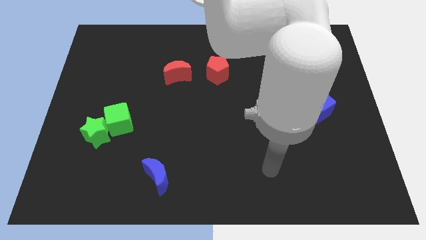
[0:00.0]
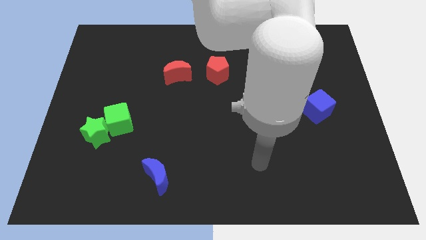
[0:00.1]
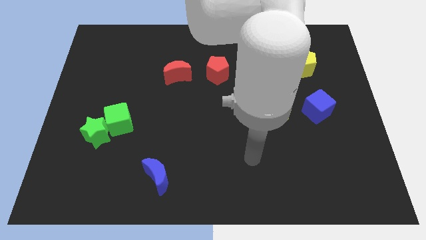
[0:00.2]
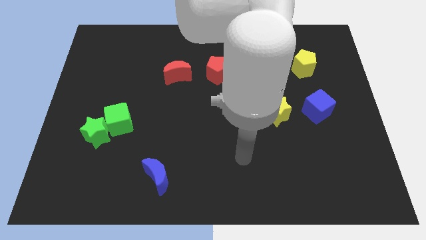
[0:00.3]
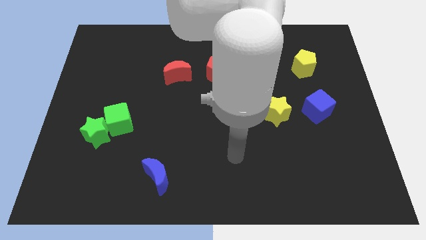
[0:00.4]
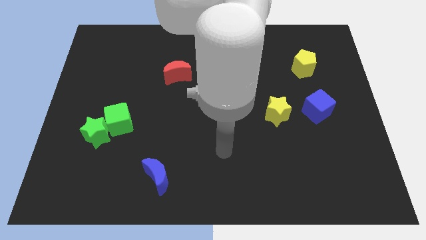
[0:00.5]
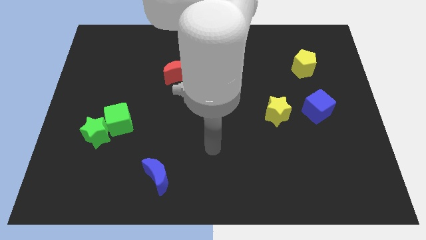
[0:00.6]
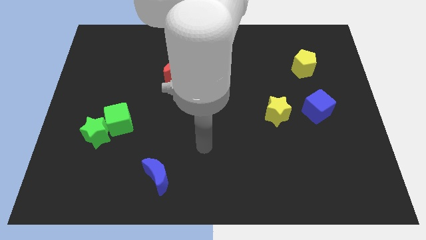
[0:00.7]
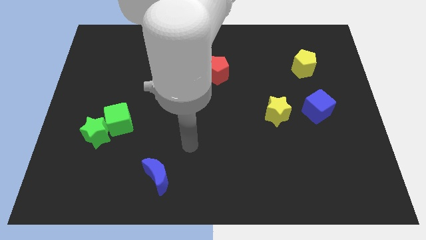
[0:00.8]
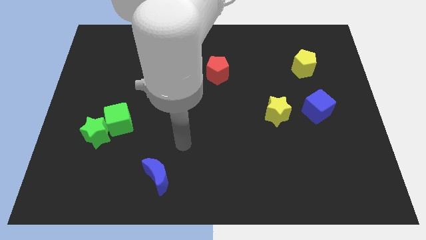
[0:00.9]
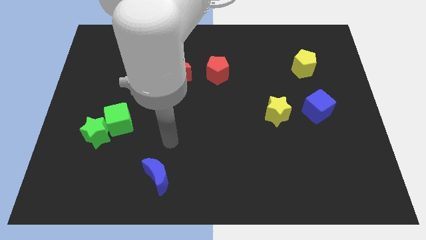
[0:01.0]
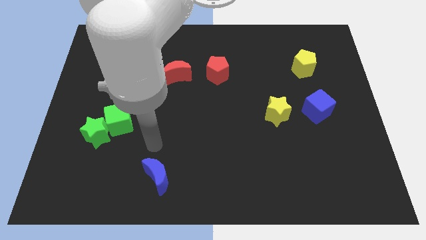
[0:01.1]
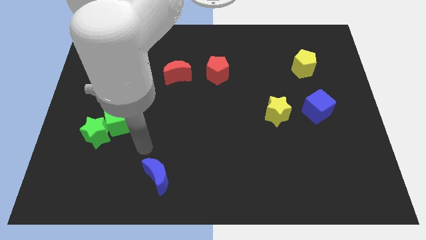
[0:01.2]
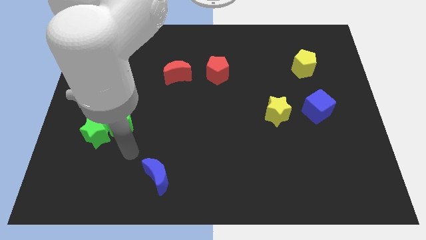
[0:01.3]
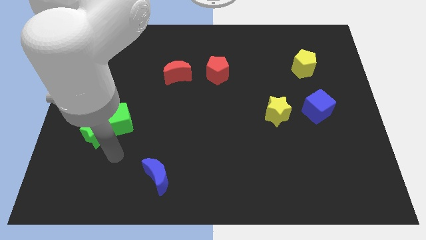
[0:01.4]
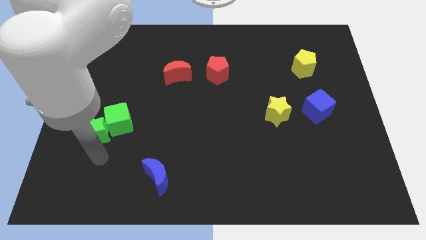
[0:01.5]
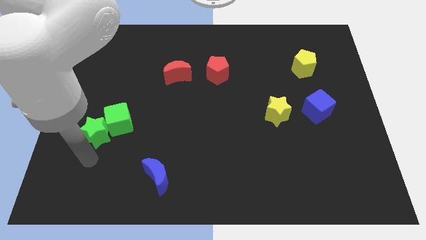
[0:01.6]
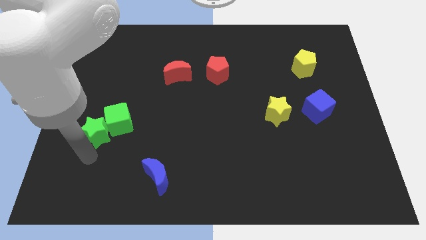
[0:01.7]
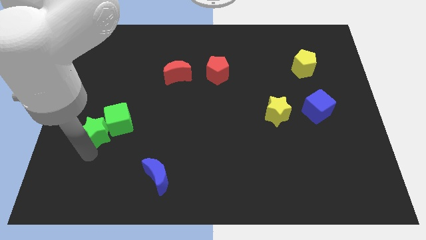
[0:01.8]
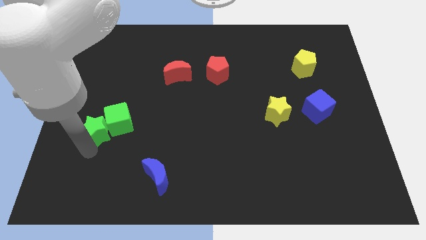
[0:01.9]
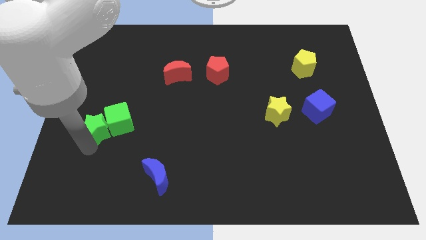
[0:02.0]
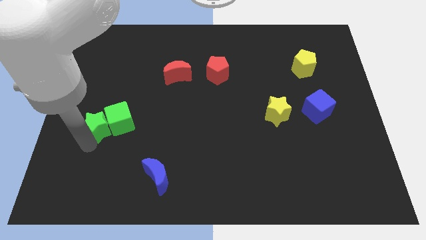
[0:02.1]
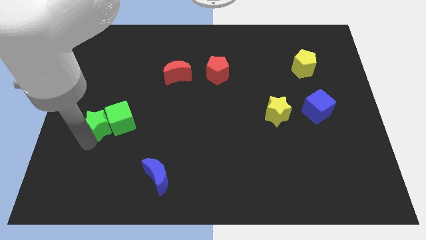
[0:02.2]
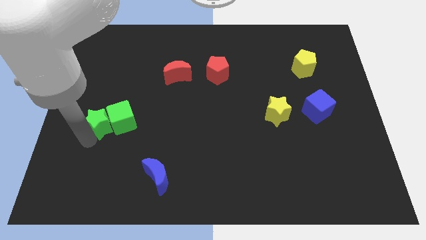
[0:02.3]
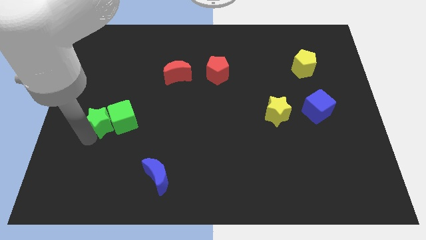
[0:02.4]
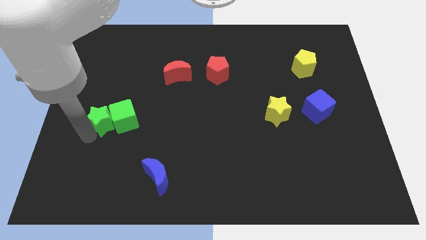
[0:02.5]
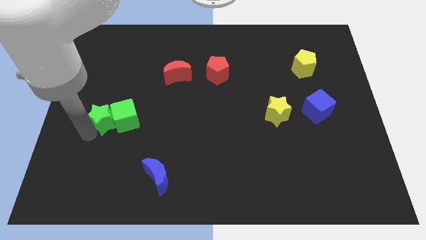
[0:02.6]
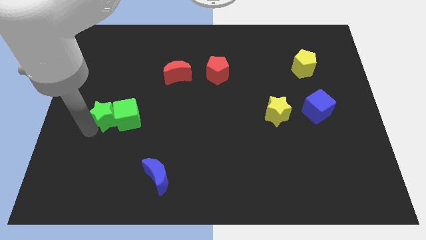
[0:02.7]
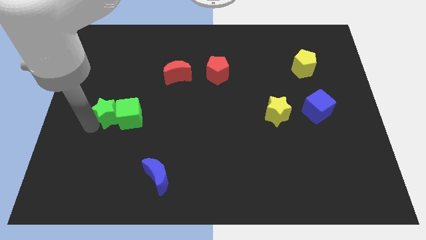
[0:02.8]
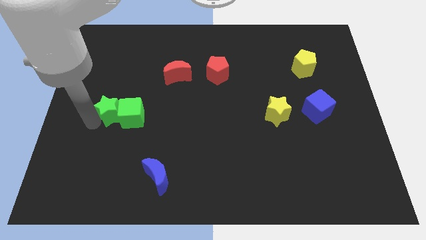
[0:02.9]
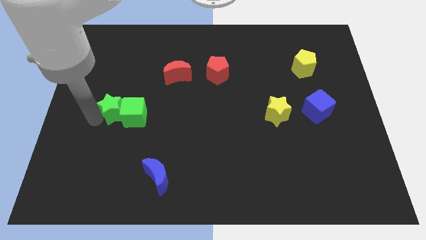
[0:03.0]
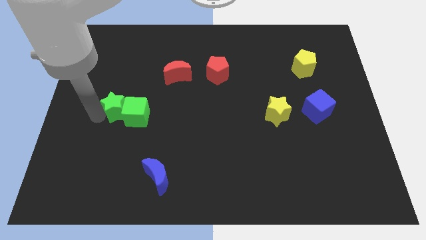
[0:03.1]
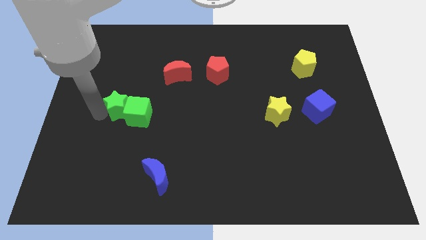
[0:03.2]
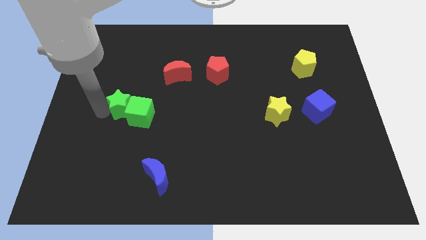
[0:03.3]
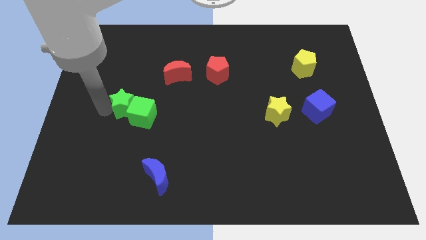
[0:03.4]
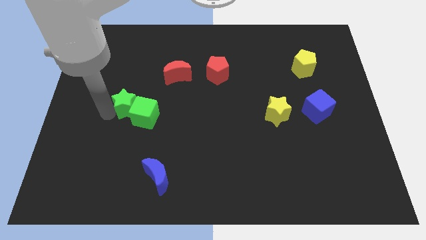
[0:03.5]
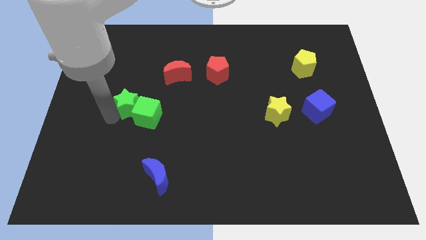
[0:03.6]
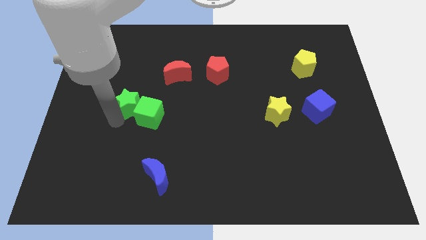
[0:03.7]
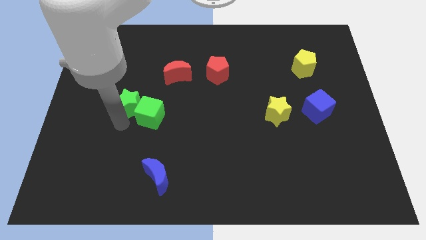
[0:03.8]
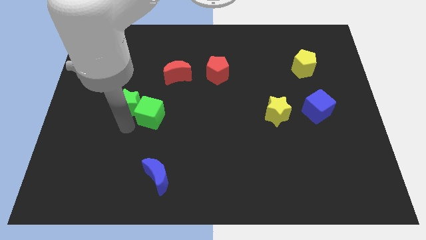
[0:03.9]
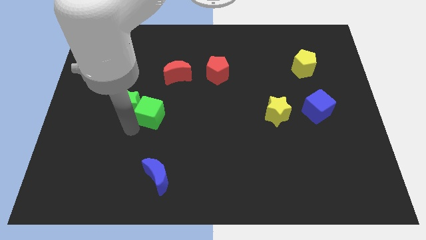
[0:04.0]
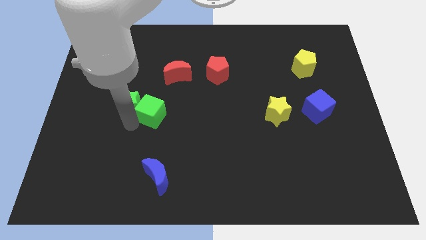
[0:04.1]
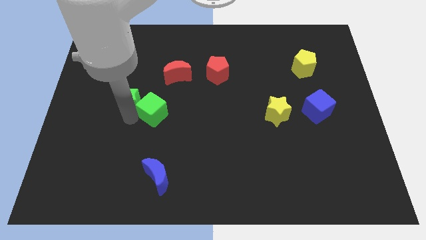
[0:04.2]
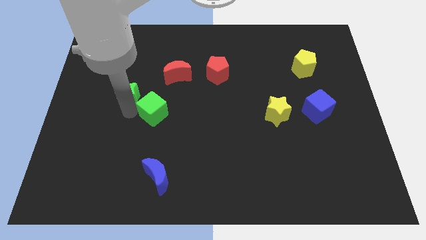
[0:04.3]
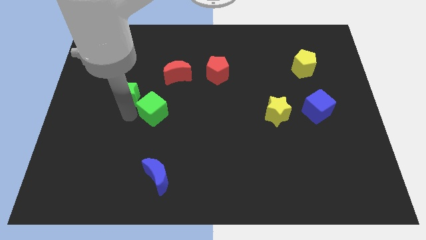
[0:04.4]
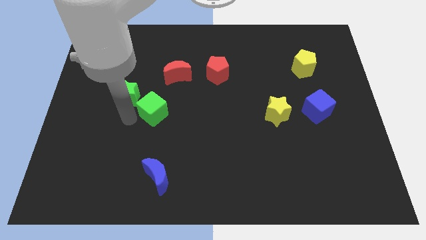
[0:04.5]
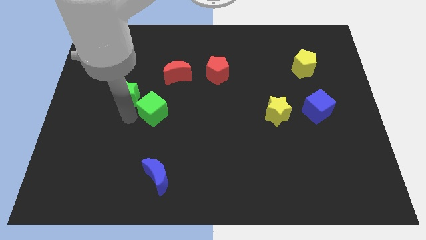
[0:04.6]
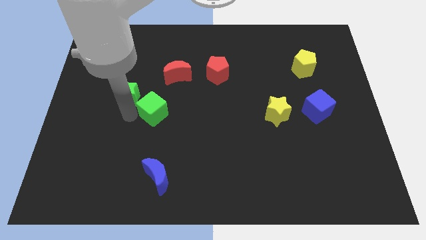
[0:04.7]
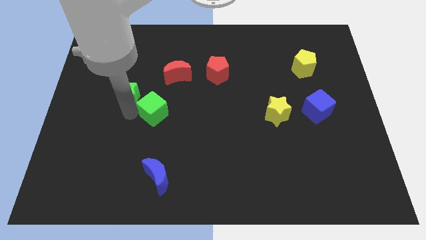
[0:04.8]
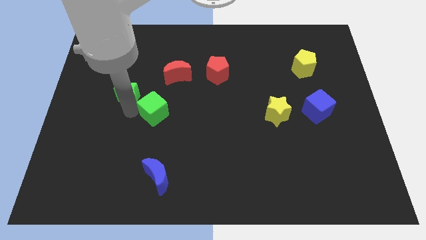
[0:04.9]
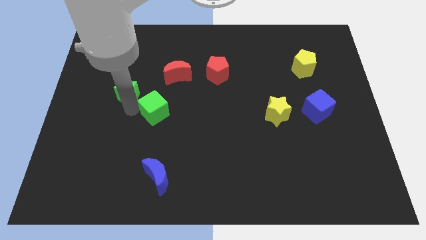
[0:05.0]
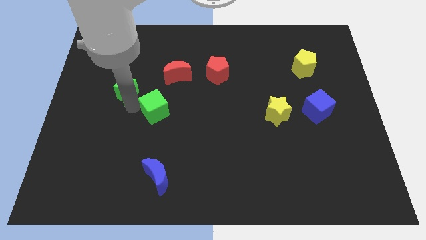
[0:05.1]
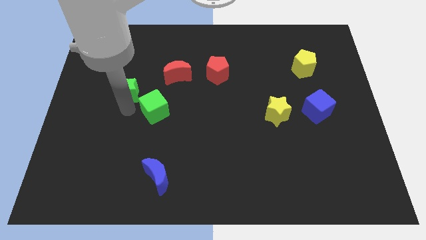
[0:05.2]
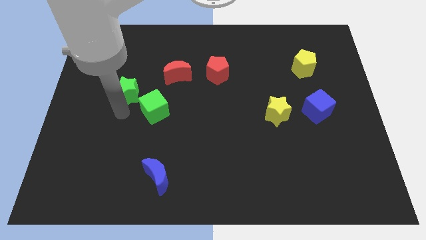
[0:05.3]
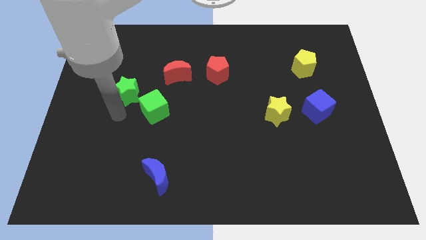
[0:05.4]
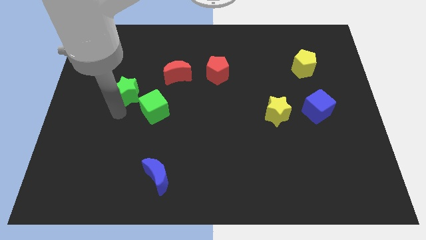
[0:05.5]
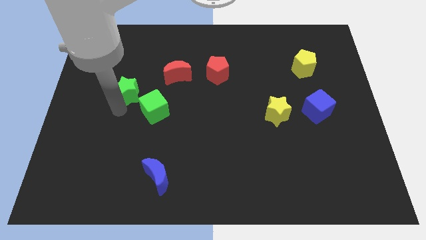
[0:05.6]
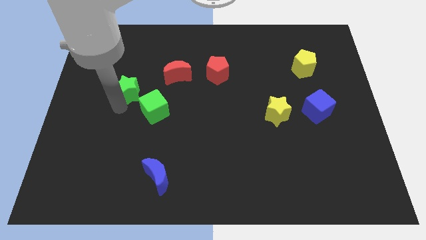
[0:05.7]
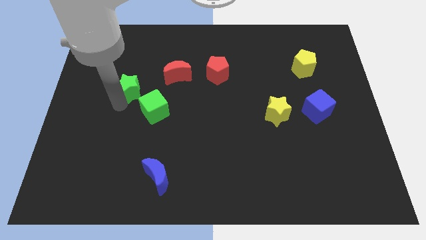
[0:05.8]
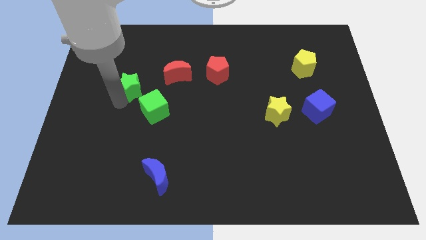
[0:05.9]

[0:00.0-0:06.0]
slide the green star to the left of the red moon
